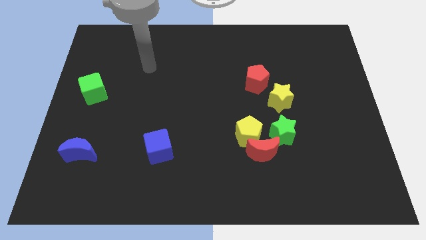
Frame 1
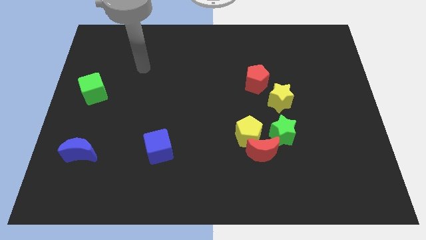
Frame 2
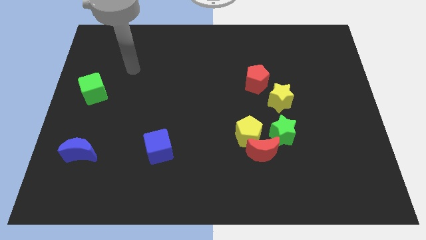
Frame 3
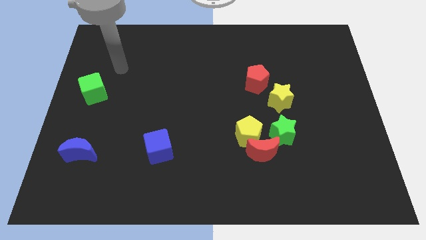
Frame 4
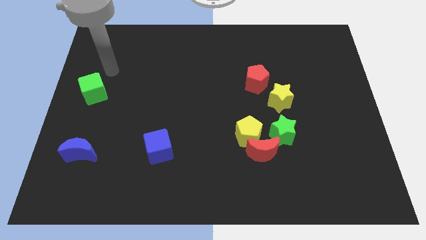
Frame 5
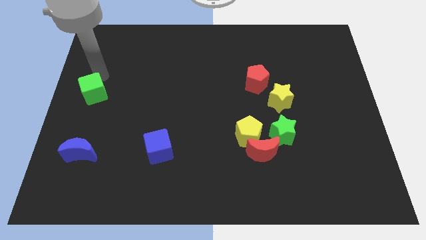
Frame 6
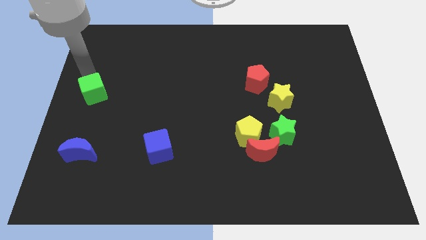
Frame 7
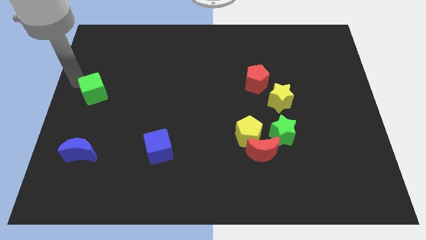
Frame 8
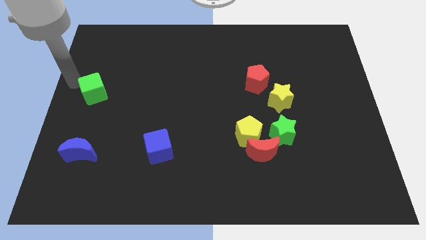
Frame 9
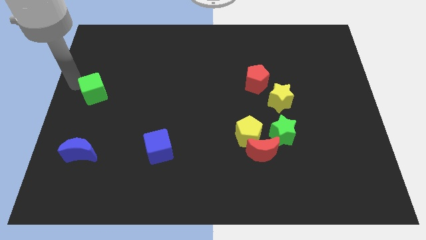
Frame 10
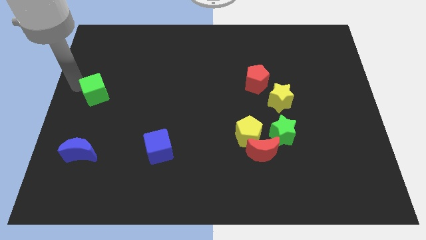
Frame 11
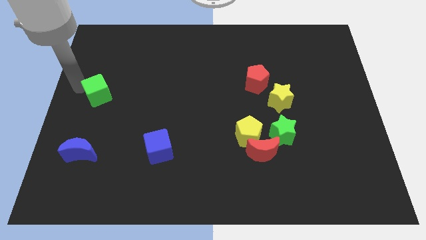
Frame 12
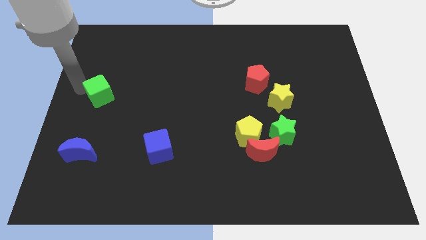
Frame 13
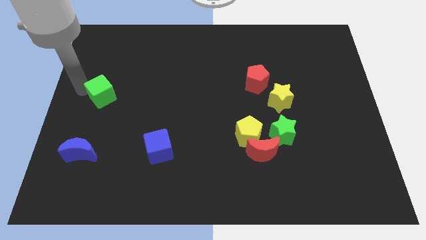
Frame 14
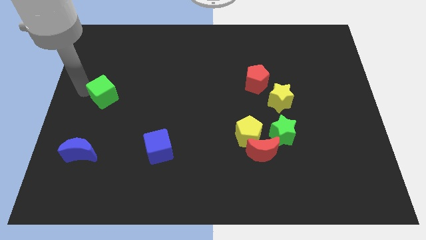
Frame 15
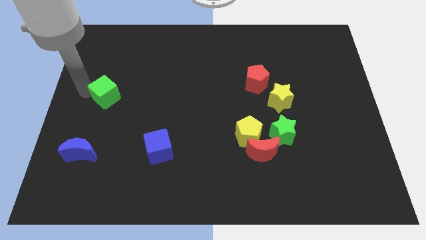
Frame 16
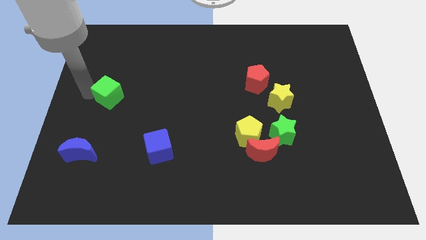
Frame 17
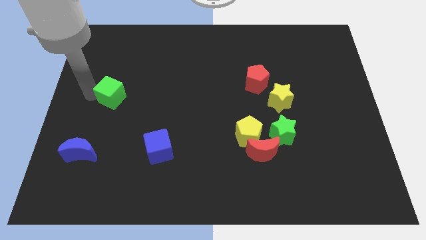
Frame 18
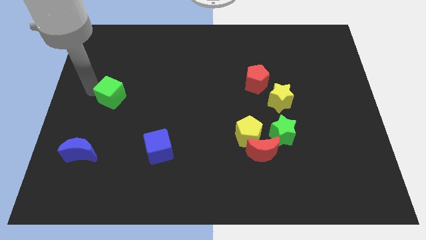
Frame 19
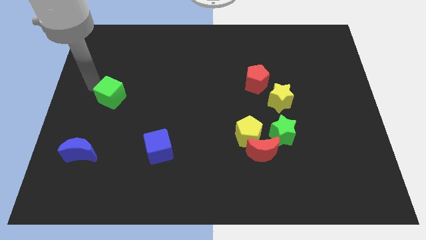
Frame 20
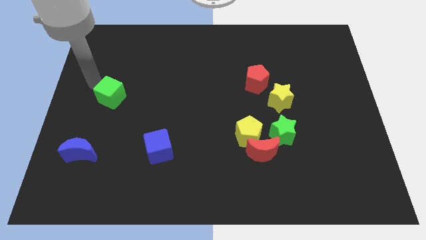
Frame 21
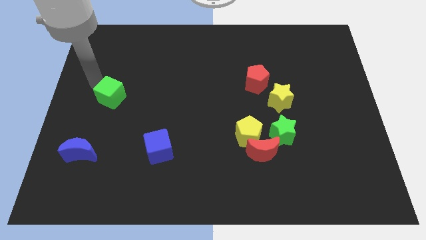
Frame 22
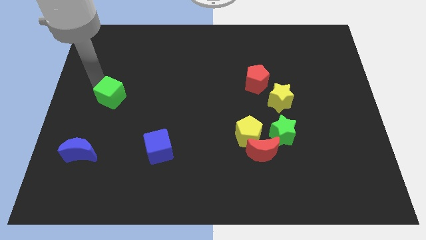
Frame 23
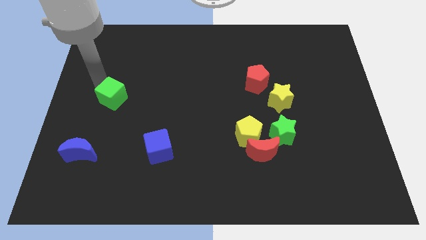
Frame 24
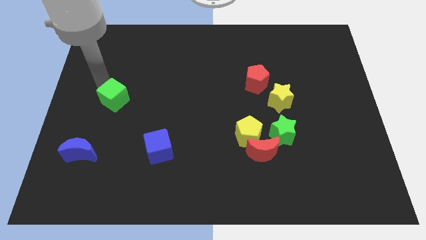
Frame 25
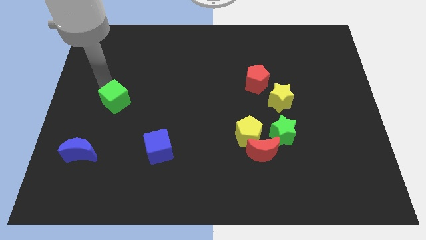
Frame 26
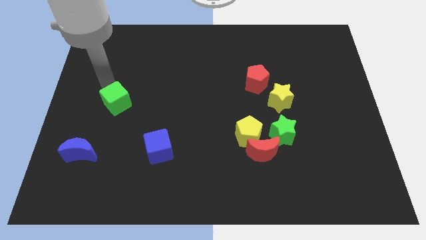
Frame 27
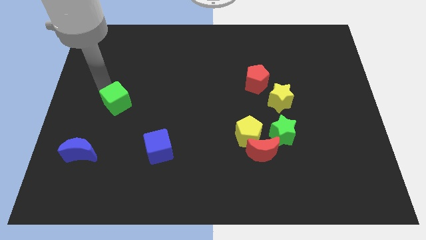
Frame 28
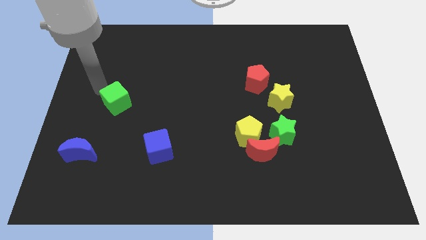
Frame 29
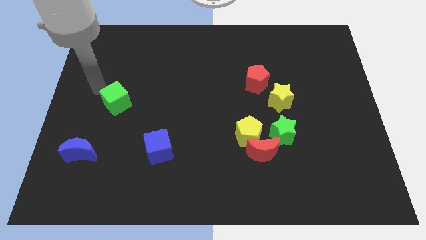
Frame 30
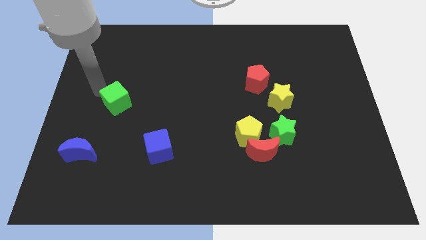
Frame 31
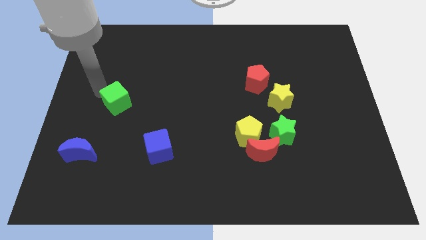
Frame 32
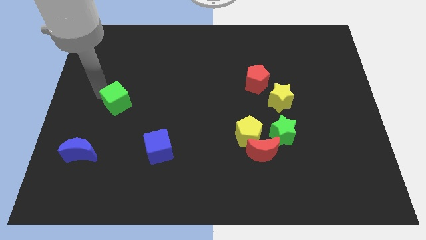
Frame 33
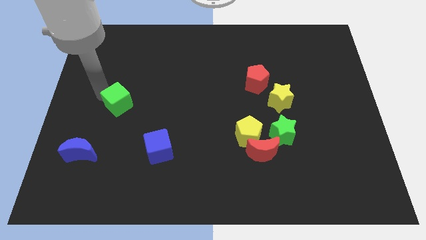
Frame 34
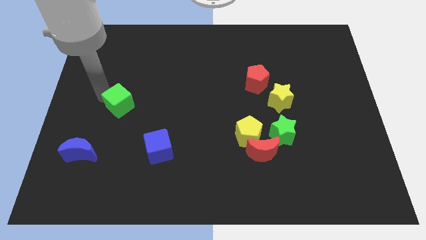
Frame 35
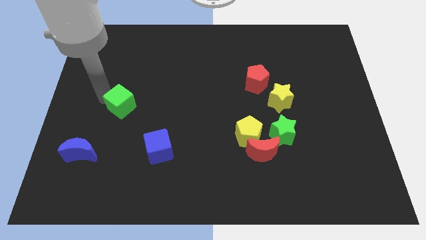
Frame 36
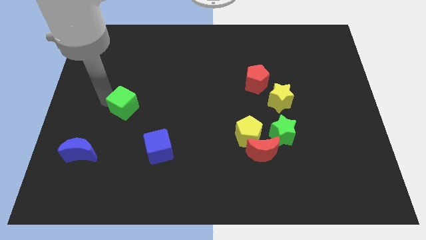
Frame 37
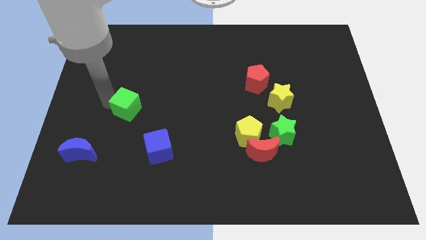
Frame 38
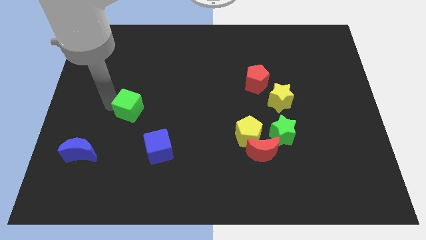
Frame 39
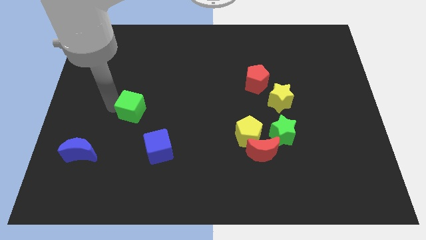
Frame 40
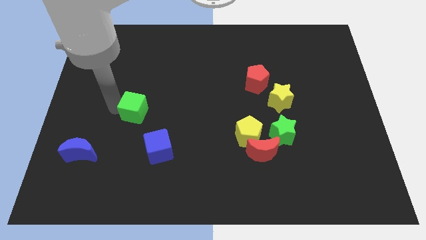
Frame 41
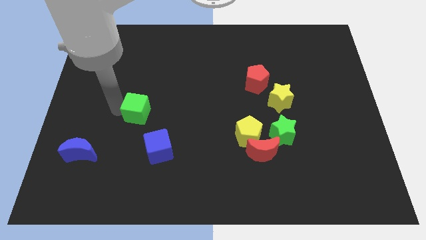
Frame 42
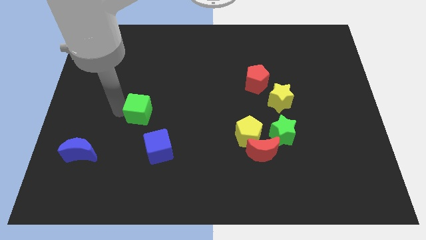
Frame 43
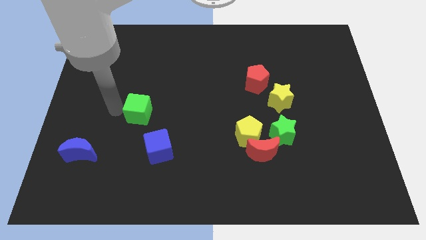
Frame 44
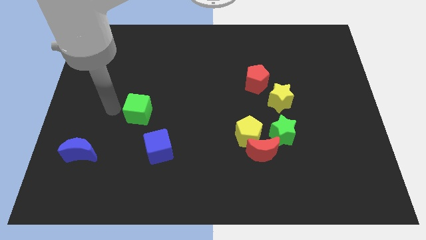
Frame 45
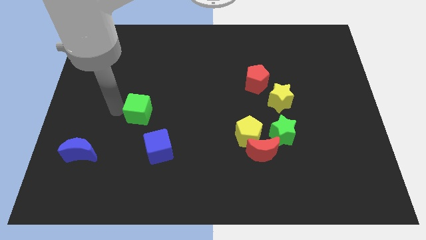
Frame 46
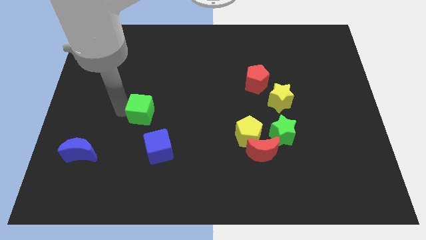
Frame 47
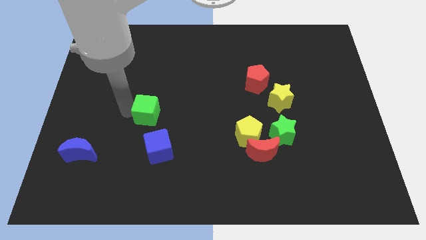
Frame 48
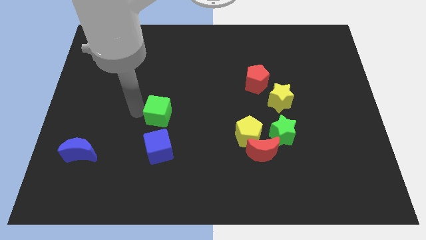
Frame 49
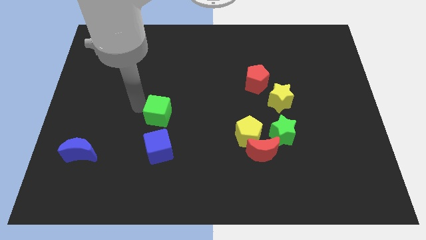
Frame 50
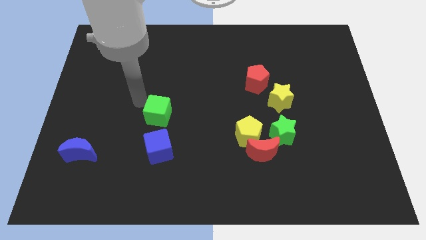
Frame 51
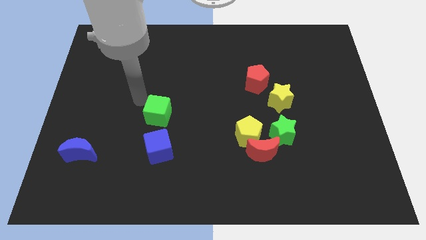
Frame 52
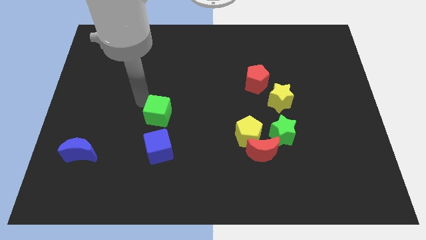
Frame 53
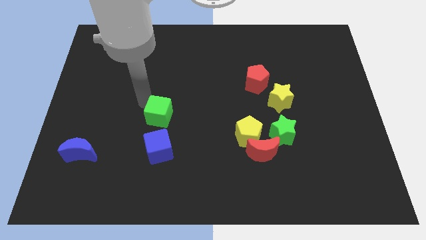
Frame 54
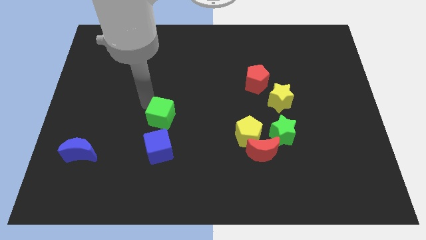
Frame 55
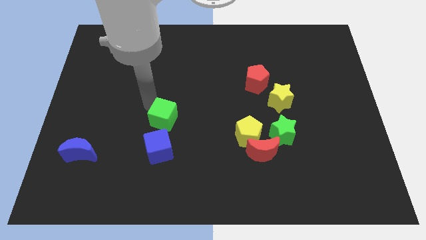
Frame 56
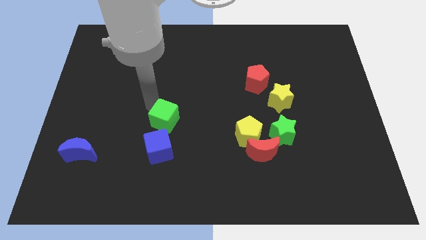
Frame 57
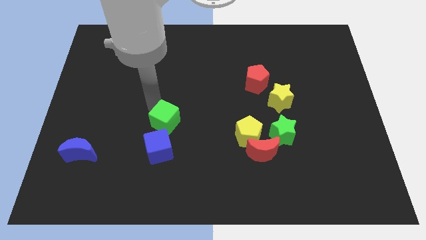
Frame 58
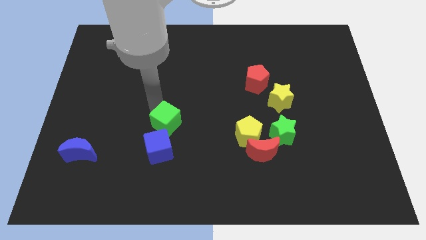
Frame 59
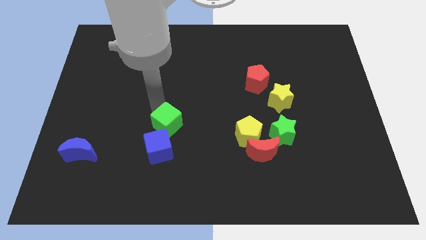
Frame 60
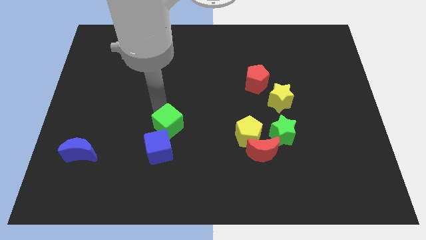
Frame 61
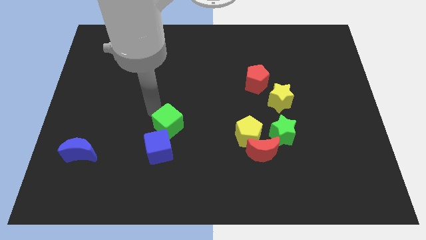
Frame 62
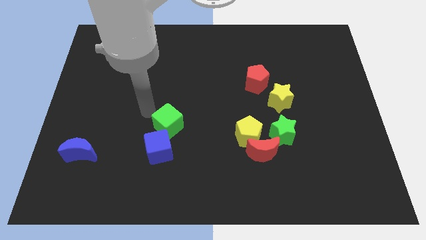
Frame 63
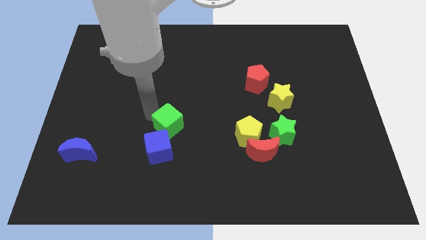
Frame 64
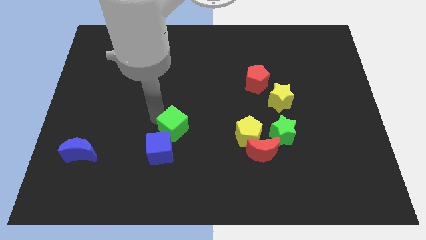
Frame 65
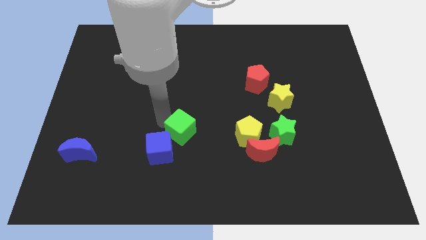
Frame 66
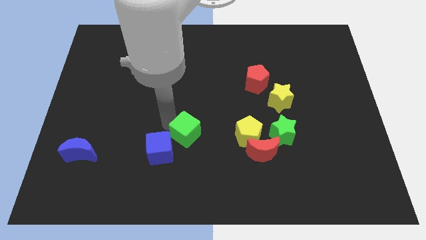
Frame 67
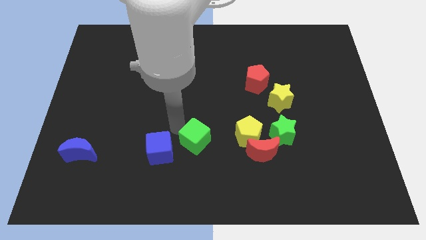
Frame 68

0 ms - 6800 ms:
push the green cube to the left side of the red moon

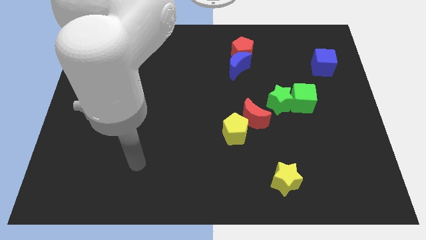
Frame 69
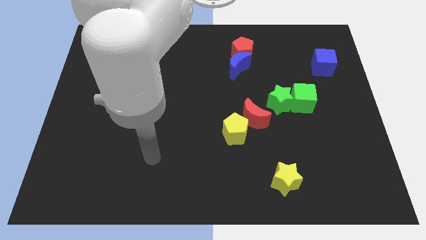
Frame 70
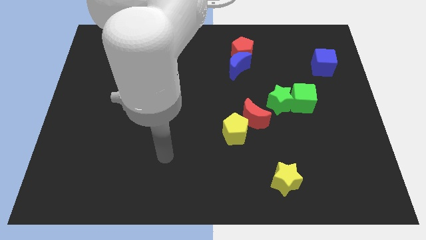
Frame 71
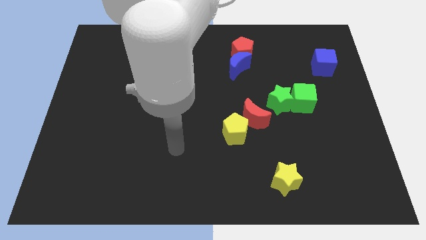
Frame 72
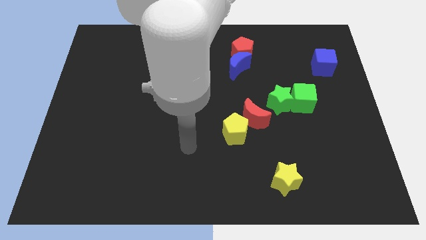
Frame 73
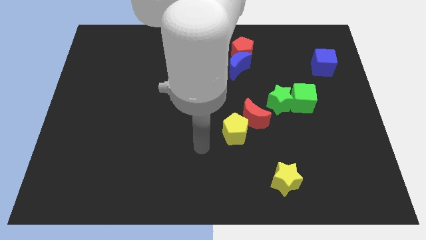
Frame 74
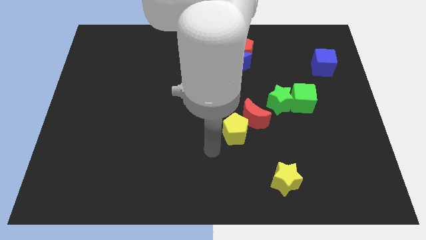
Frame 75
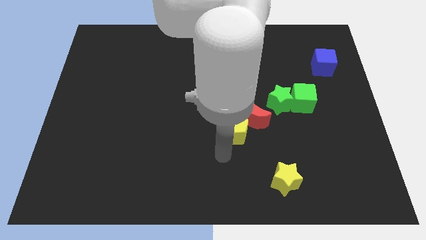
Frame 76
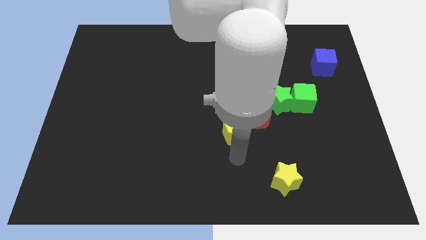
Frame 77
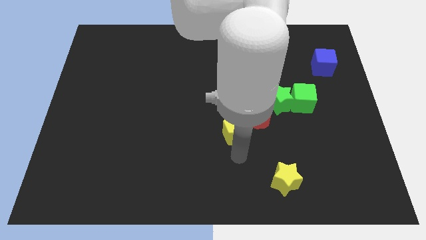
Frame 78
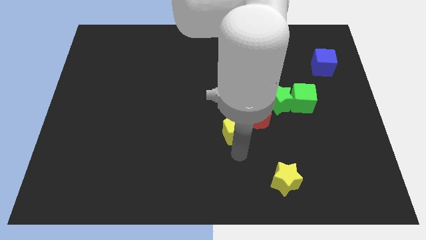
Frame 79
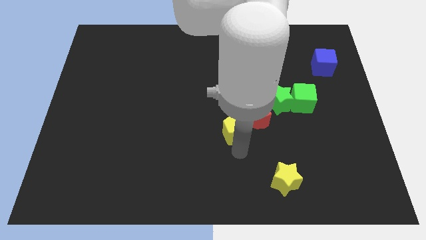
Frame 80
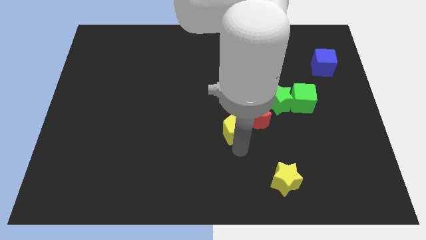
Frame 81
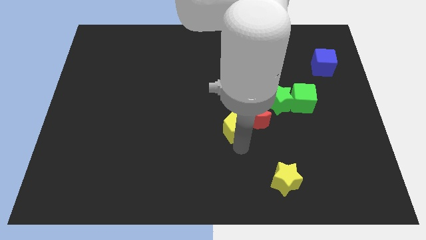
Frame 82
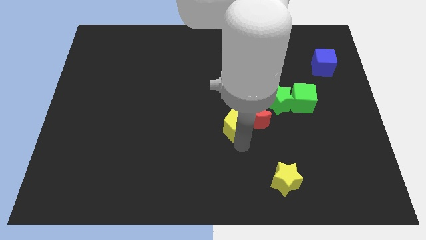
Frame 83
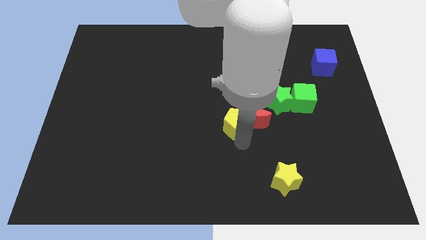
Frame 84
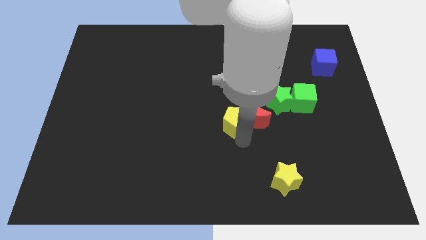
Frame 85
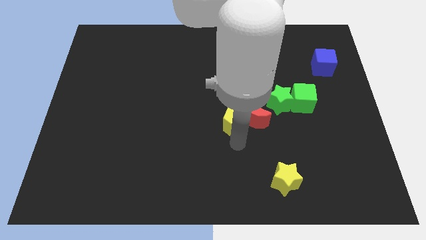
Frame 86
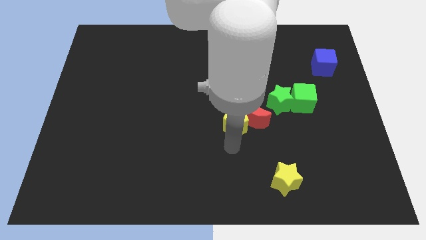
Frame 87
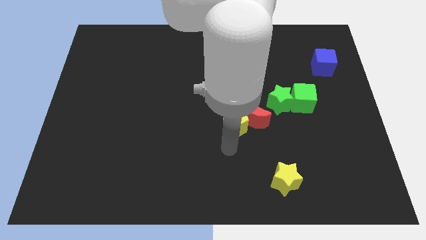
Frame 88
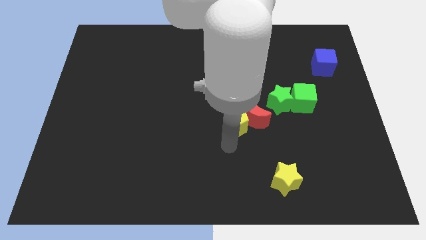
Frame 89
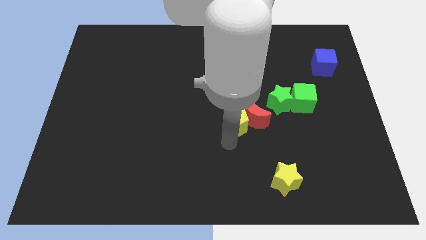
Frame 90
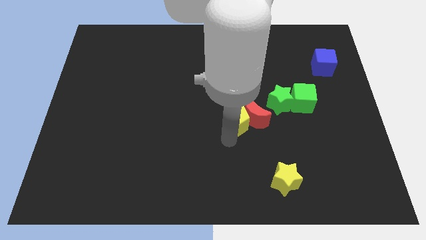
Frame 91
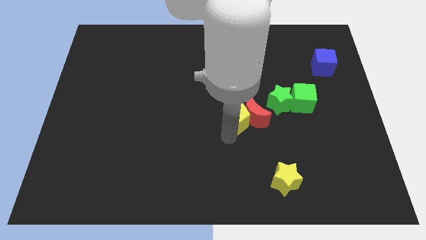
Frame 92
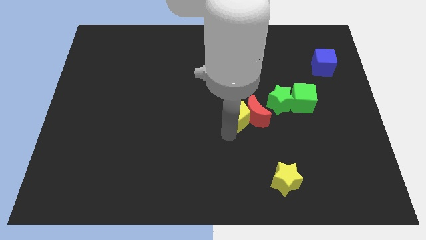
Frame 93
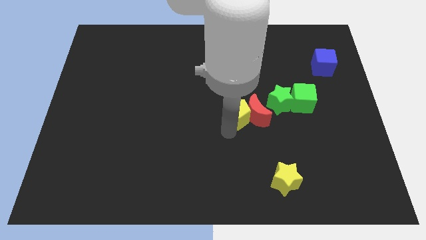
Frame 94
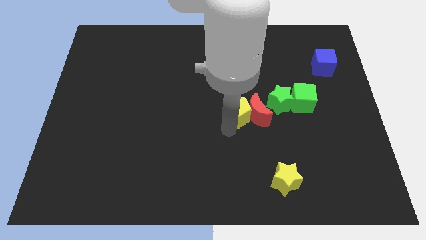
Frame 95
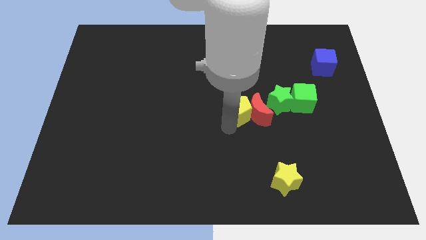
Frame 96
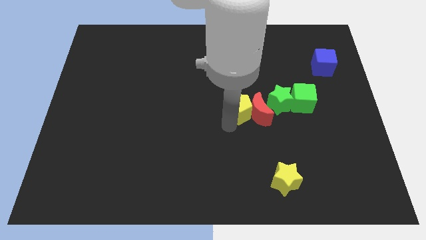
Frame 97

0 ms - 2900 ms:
push the yellow pentagon just left of the green cube
